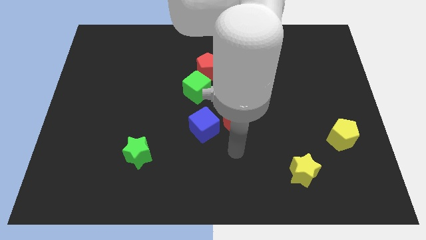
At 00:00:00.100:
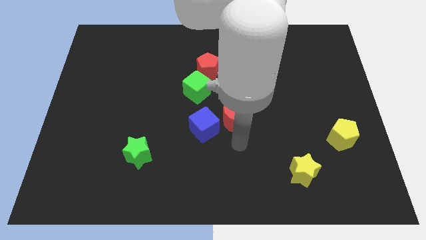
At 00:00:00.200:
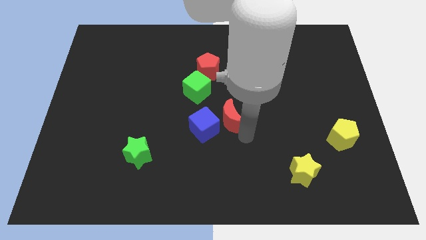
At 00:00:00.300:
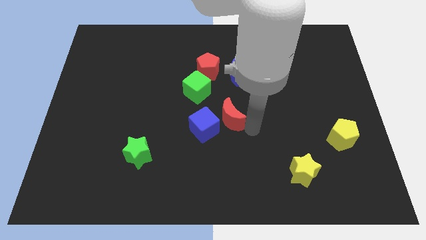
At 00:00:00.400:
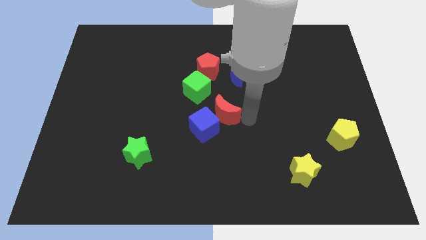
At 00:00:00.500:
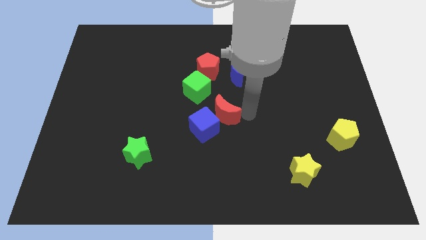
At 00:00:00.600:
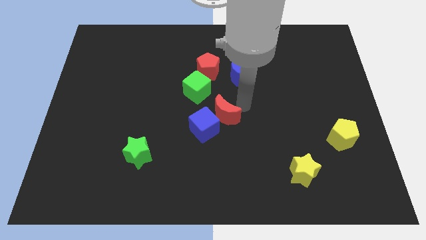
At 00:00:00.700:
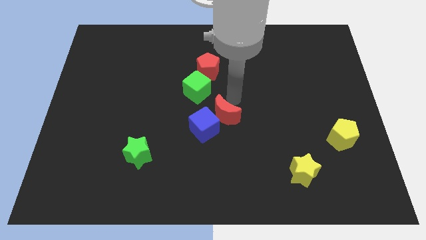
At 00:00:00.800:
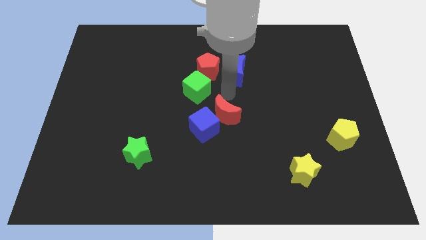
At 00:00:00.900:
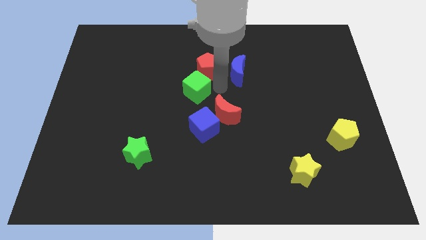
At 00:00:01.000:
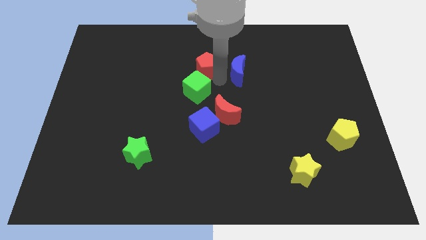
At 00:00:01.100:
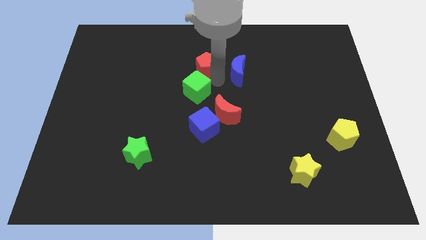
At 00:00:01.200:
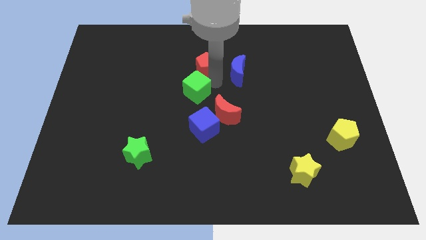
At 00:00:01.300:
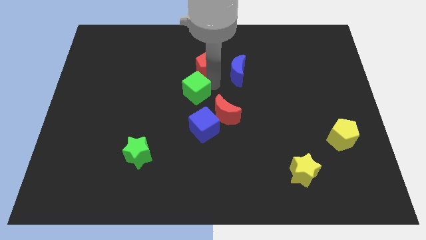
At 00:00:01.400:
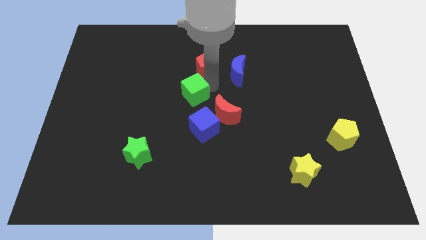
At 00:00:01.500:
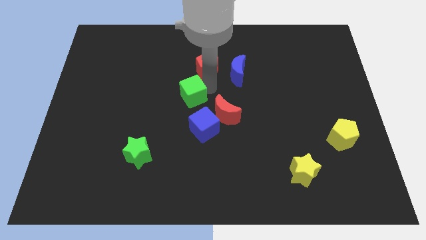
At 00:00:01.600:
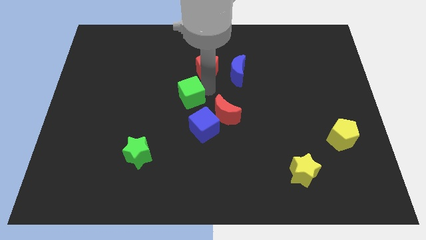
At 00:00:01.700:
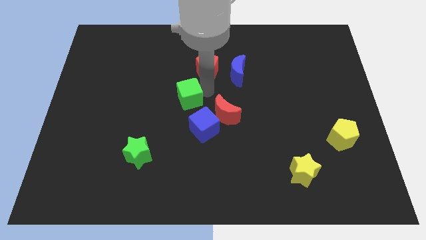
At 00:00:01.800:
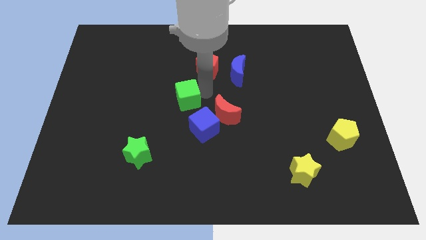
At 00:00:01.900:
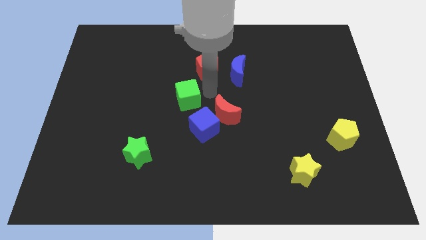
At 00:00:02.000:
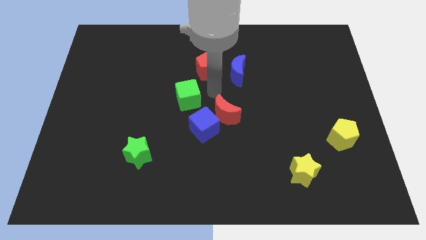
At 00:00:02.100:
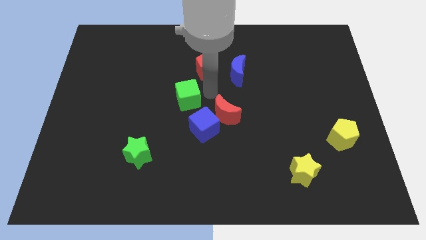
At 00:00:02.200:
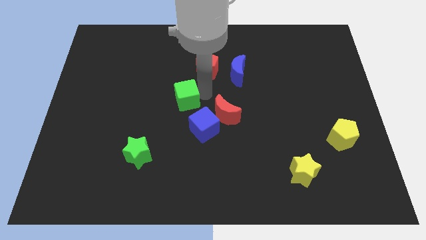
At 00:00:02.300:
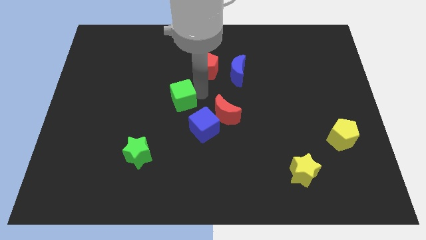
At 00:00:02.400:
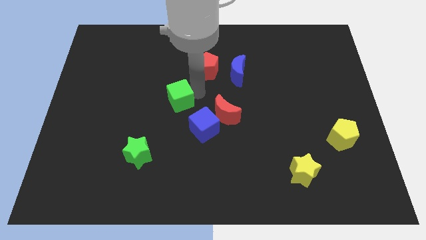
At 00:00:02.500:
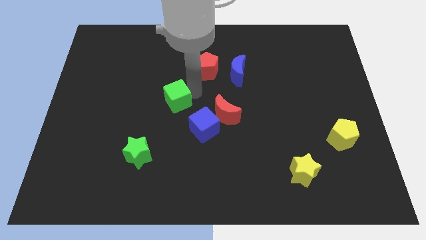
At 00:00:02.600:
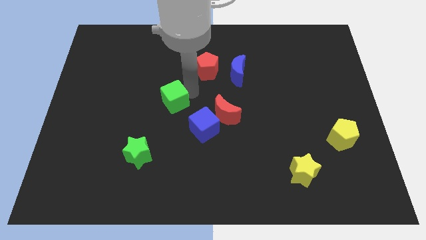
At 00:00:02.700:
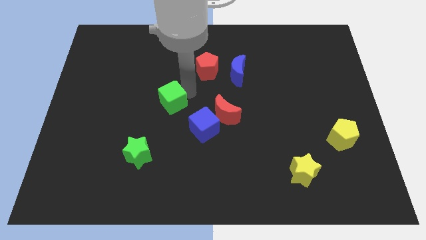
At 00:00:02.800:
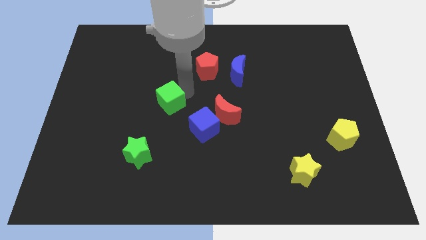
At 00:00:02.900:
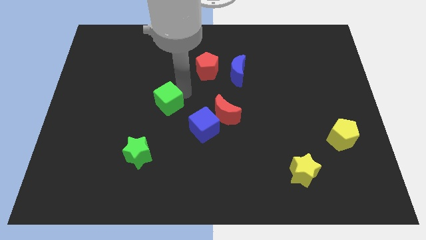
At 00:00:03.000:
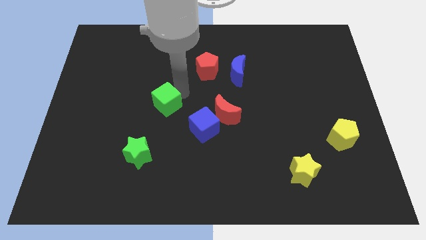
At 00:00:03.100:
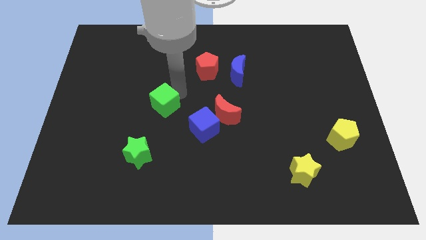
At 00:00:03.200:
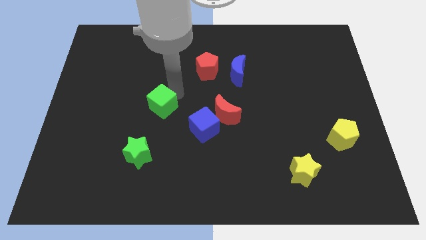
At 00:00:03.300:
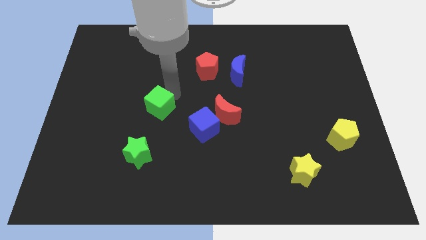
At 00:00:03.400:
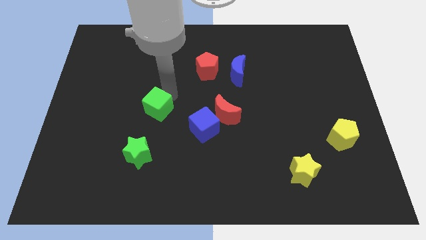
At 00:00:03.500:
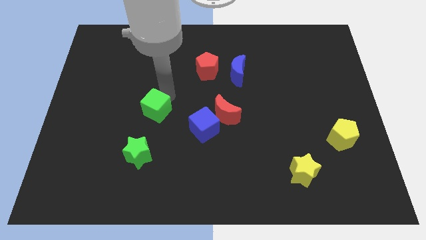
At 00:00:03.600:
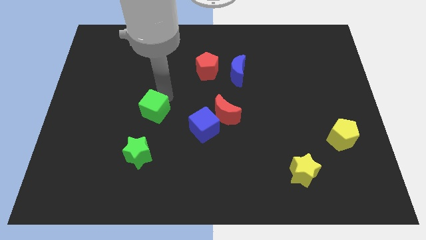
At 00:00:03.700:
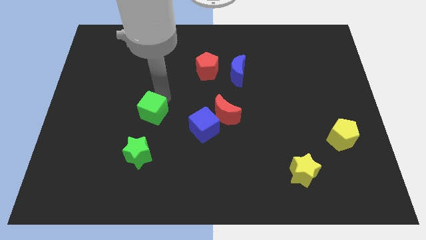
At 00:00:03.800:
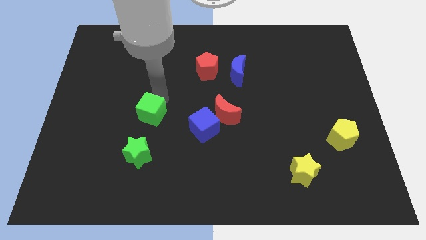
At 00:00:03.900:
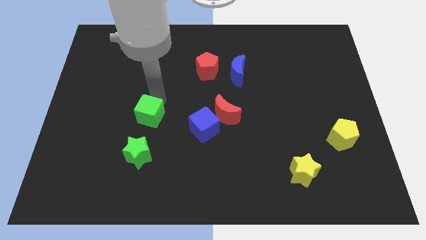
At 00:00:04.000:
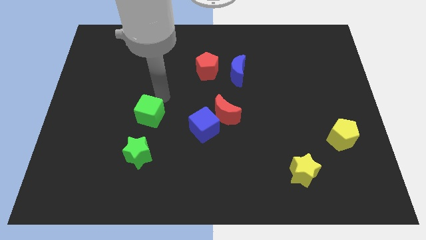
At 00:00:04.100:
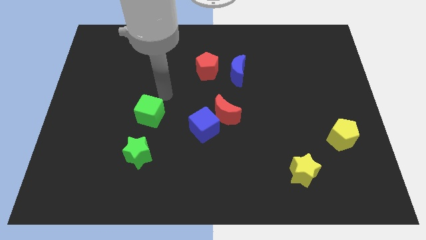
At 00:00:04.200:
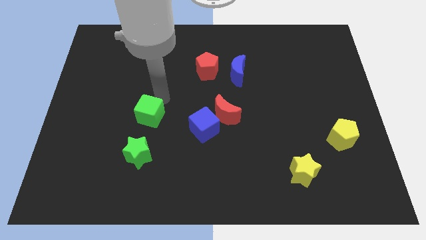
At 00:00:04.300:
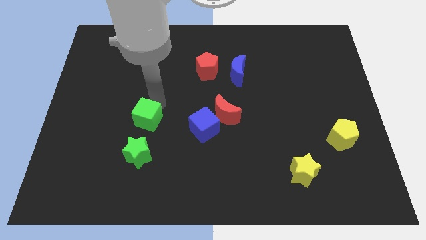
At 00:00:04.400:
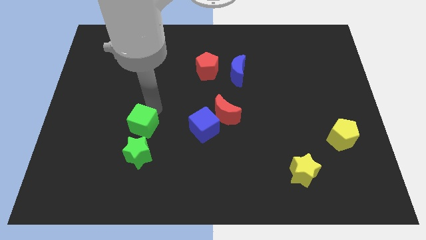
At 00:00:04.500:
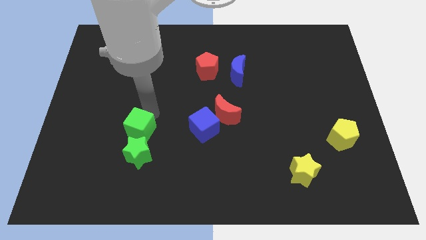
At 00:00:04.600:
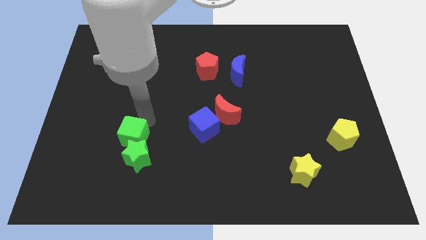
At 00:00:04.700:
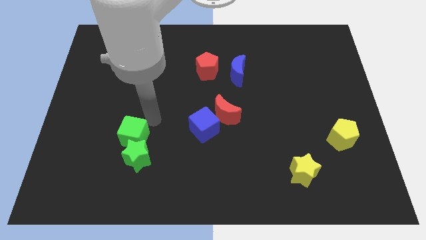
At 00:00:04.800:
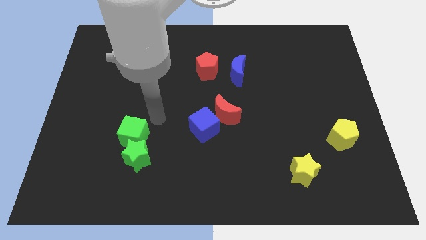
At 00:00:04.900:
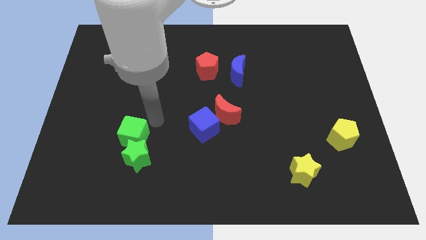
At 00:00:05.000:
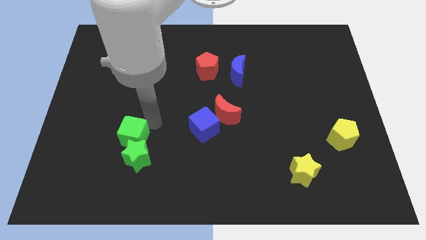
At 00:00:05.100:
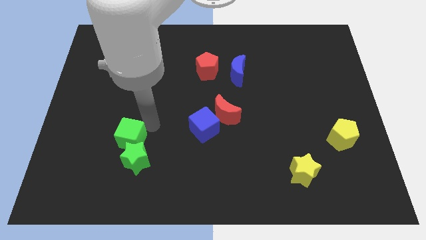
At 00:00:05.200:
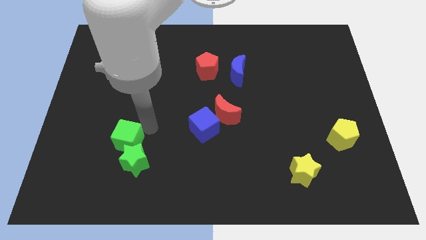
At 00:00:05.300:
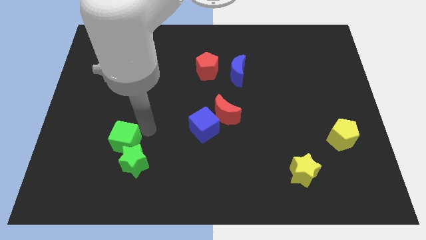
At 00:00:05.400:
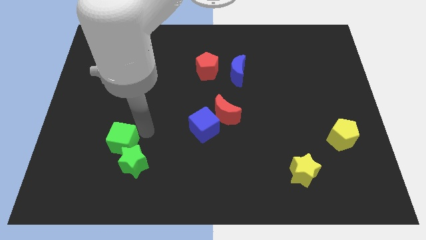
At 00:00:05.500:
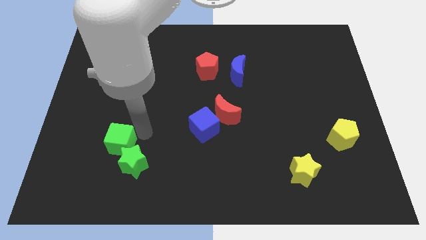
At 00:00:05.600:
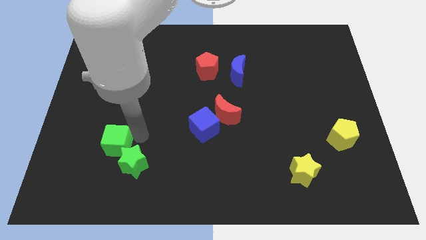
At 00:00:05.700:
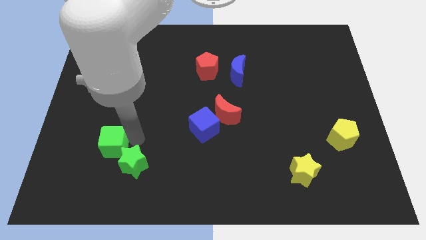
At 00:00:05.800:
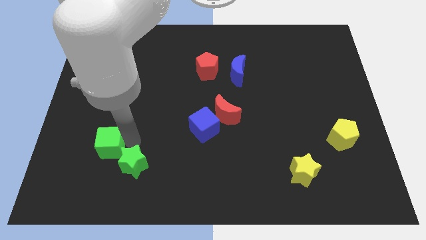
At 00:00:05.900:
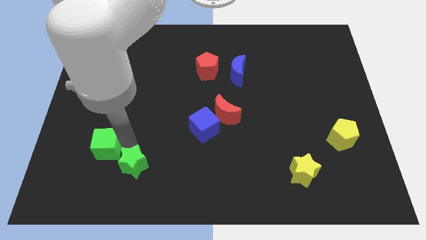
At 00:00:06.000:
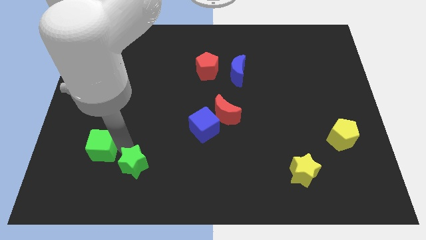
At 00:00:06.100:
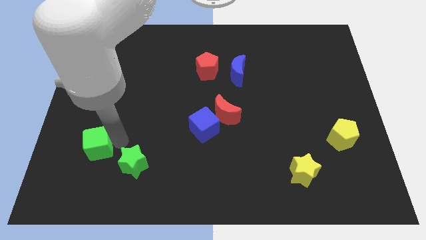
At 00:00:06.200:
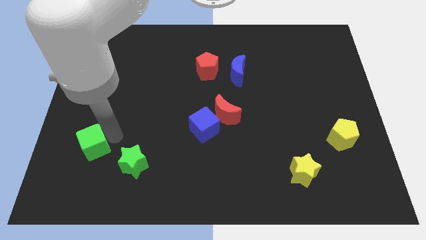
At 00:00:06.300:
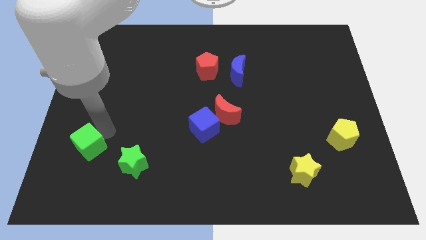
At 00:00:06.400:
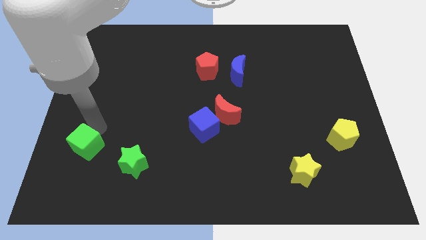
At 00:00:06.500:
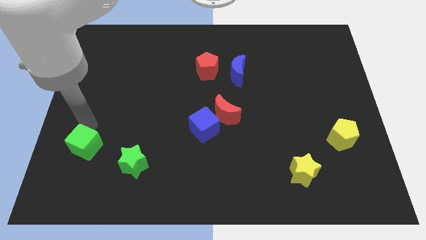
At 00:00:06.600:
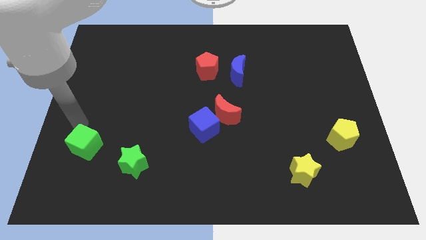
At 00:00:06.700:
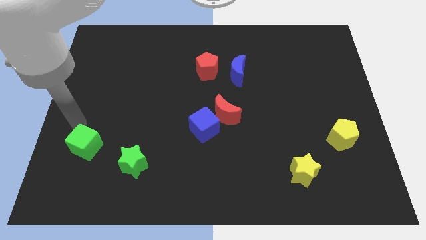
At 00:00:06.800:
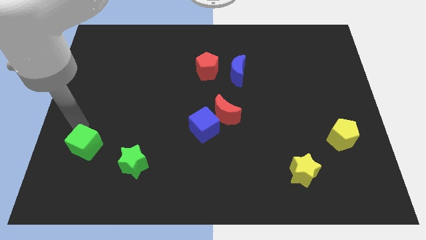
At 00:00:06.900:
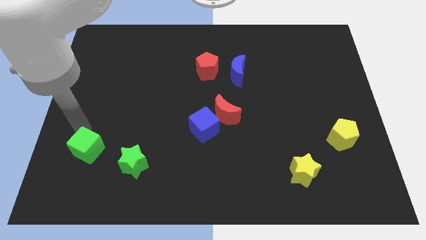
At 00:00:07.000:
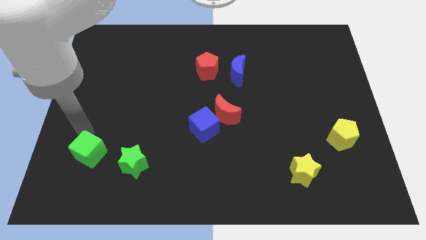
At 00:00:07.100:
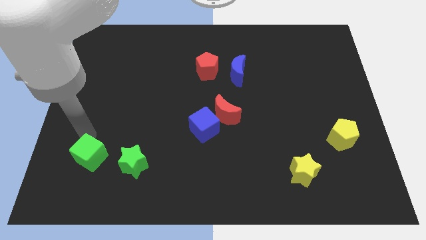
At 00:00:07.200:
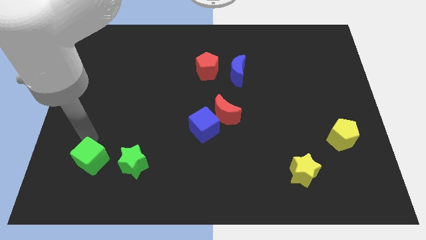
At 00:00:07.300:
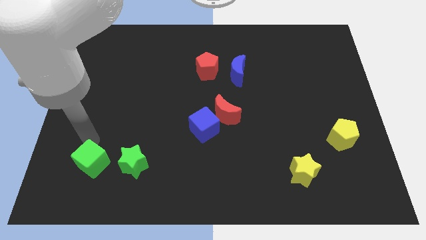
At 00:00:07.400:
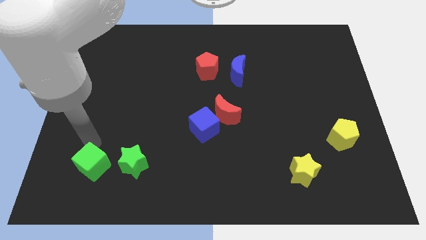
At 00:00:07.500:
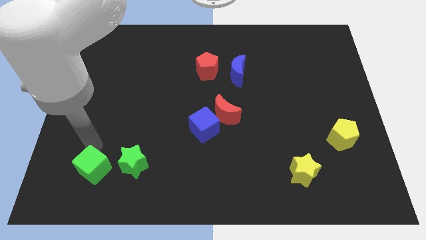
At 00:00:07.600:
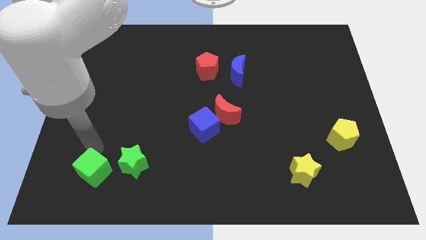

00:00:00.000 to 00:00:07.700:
move the green cube diagonally down and to the left of the green star

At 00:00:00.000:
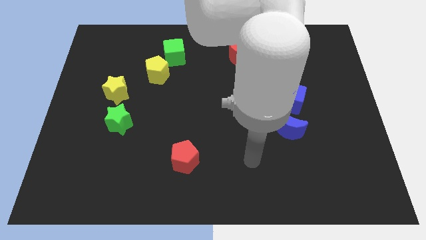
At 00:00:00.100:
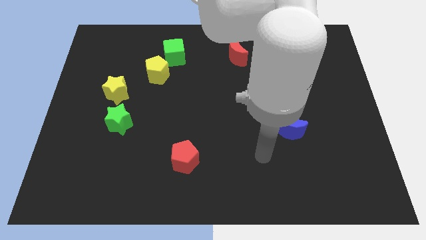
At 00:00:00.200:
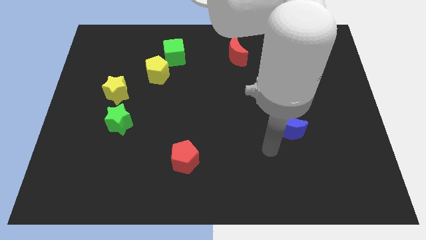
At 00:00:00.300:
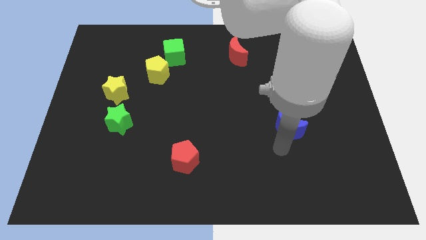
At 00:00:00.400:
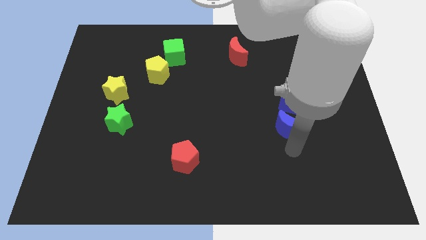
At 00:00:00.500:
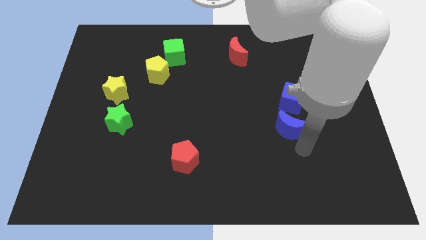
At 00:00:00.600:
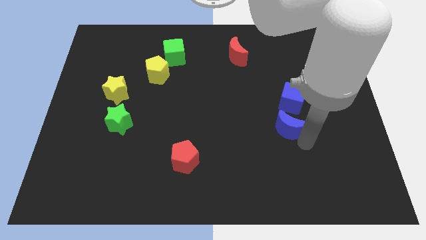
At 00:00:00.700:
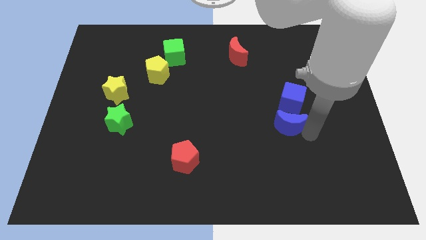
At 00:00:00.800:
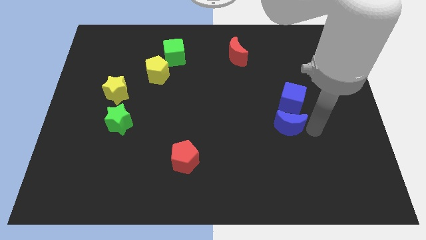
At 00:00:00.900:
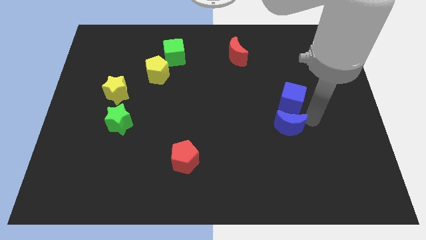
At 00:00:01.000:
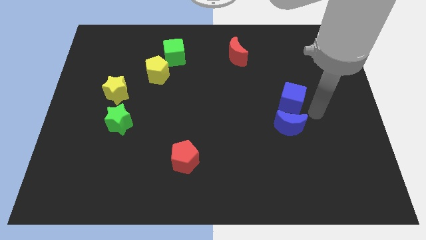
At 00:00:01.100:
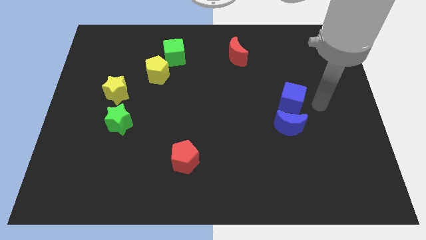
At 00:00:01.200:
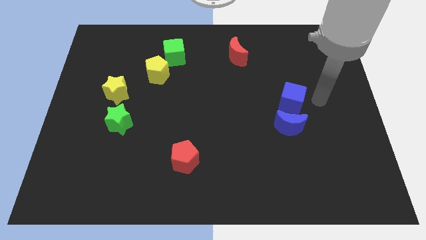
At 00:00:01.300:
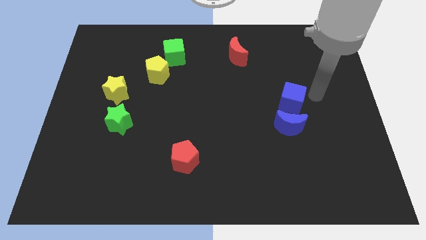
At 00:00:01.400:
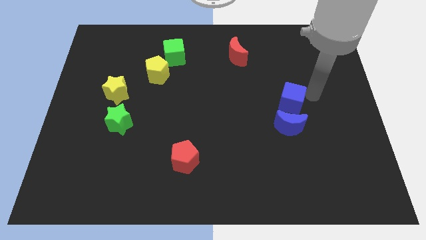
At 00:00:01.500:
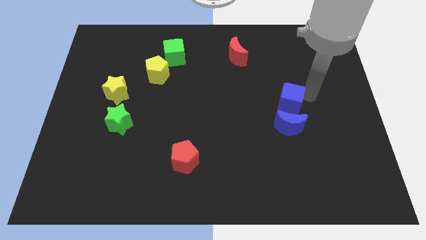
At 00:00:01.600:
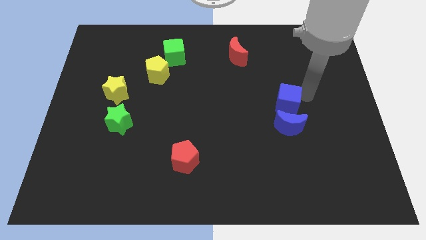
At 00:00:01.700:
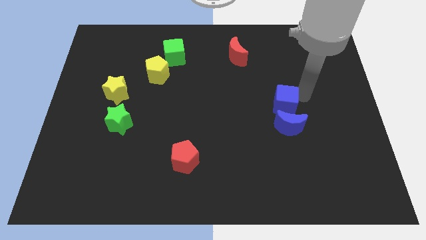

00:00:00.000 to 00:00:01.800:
slide the blue cube to the top left of the blue moon
